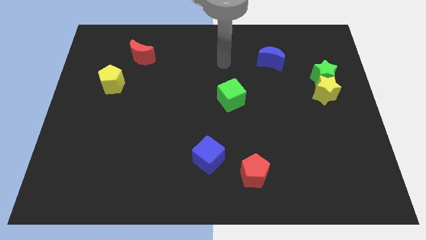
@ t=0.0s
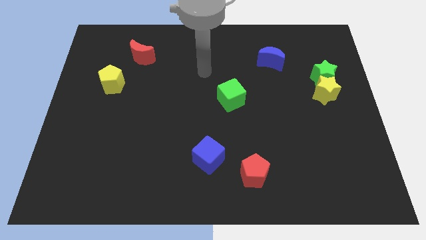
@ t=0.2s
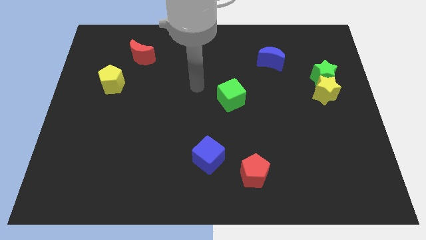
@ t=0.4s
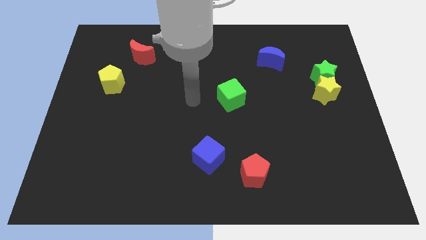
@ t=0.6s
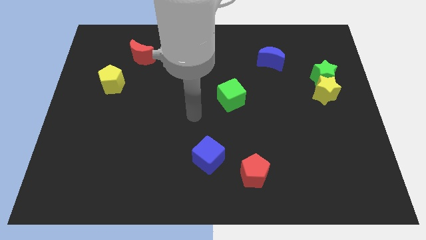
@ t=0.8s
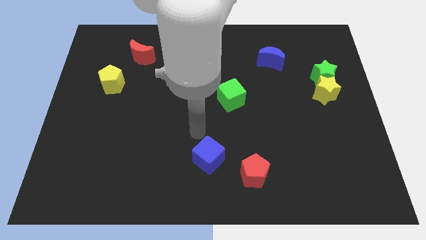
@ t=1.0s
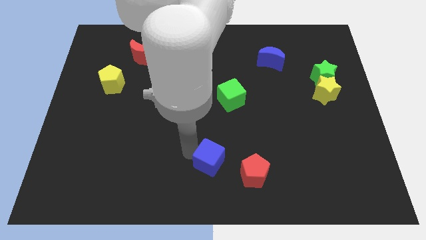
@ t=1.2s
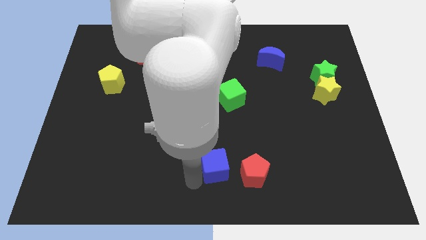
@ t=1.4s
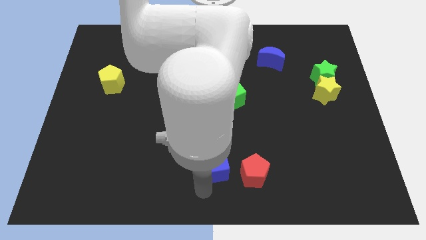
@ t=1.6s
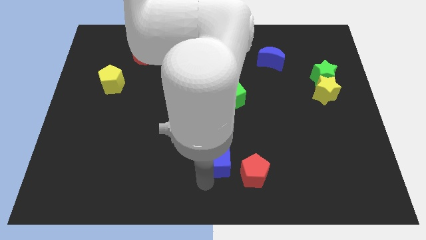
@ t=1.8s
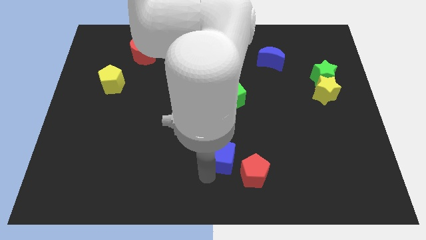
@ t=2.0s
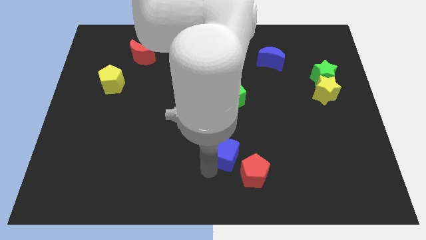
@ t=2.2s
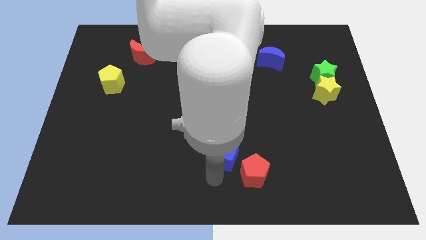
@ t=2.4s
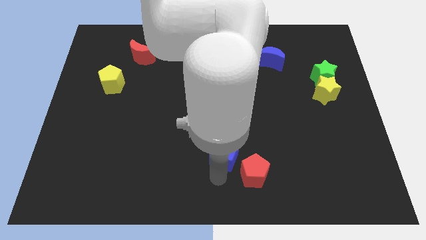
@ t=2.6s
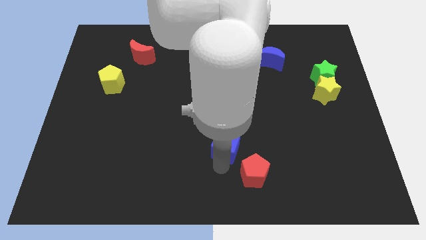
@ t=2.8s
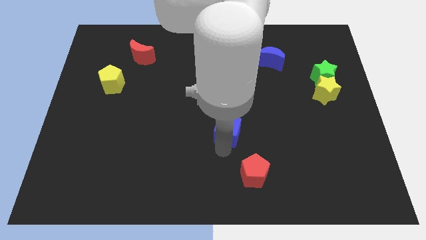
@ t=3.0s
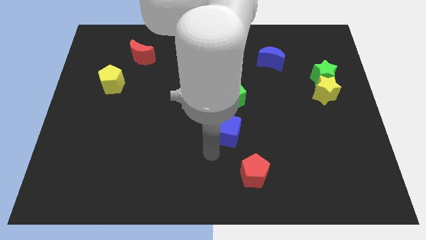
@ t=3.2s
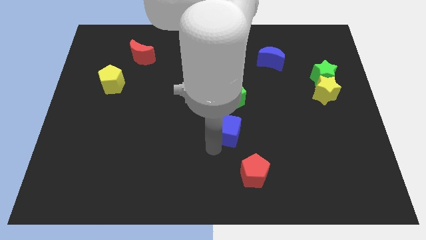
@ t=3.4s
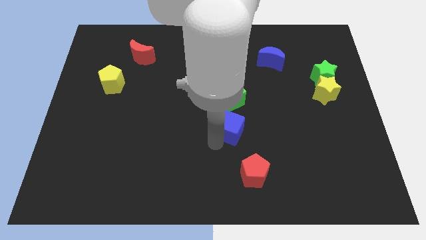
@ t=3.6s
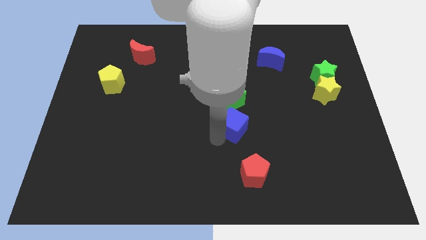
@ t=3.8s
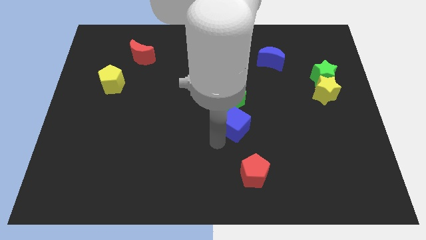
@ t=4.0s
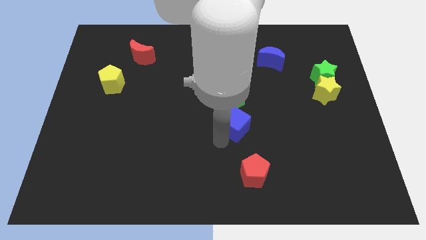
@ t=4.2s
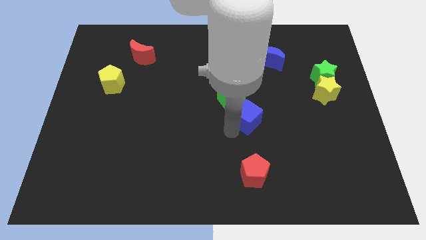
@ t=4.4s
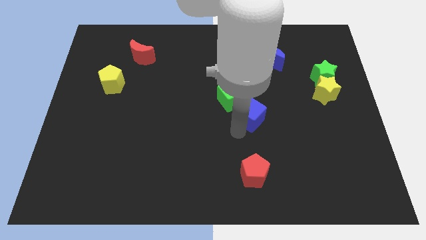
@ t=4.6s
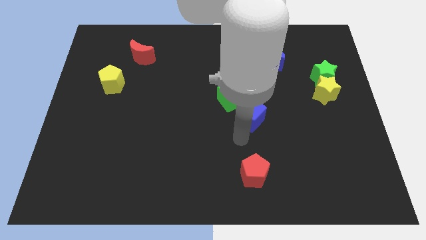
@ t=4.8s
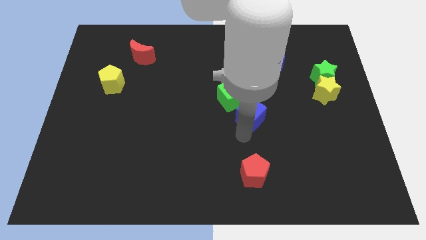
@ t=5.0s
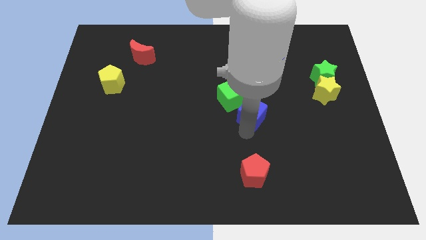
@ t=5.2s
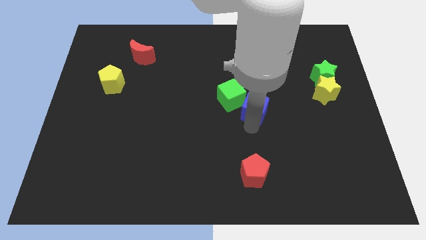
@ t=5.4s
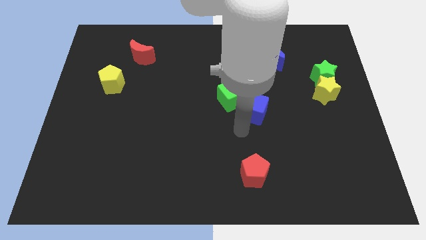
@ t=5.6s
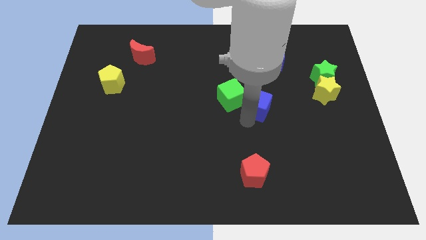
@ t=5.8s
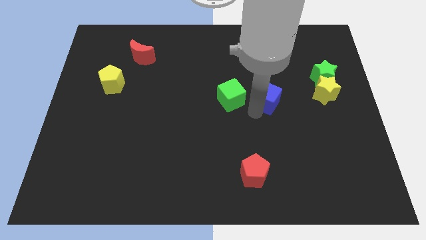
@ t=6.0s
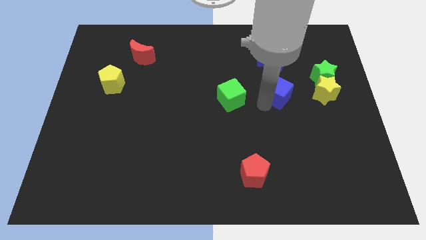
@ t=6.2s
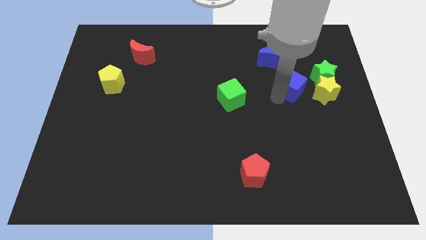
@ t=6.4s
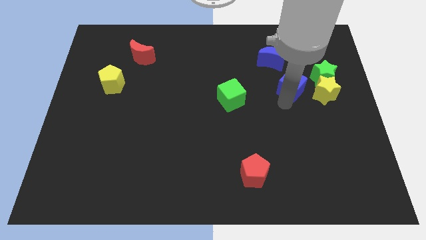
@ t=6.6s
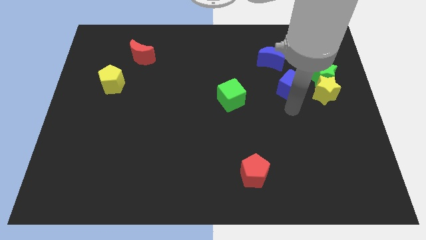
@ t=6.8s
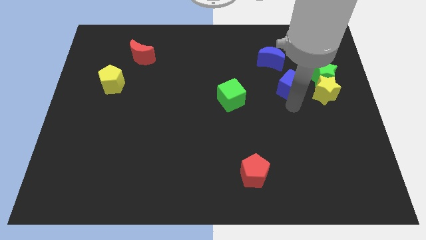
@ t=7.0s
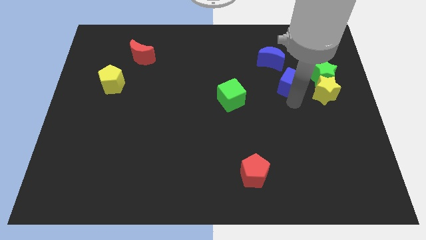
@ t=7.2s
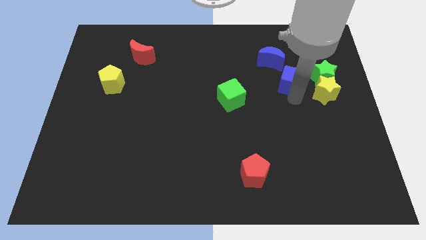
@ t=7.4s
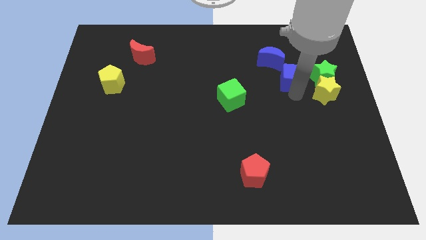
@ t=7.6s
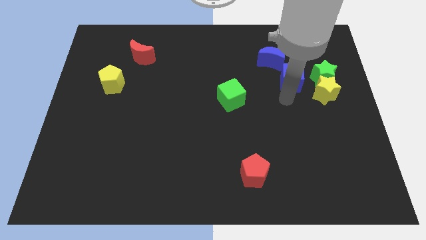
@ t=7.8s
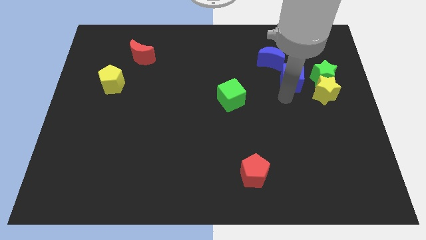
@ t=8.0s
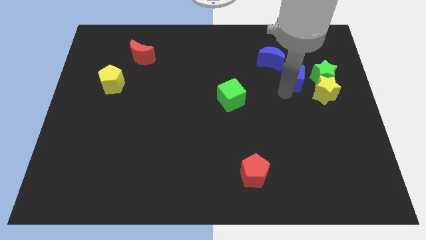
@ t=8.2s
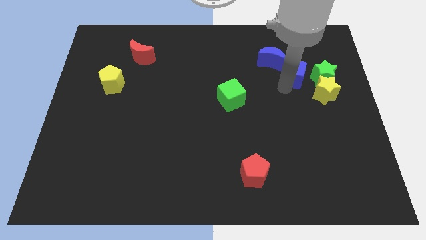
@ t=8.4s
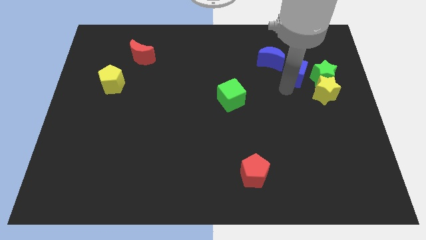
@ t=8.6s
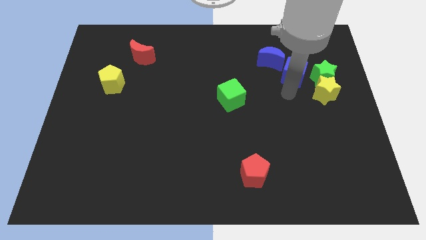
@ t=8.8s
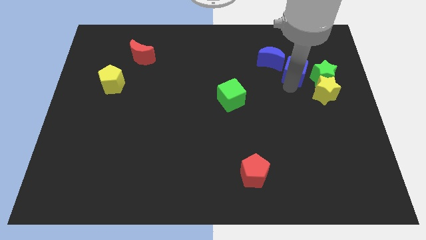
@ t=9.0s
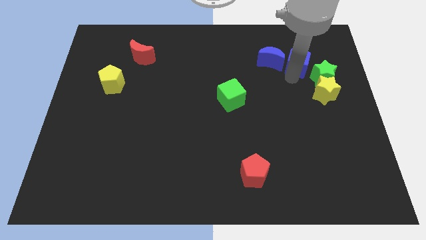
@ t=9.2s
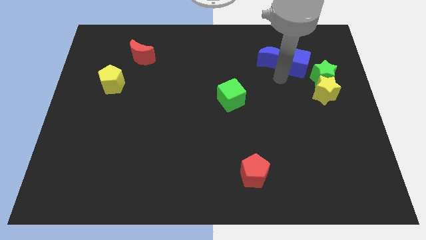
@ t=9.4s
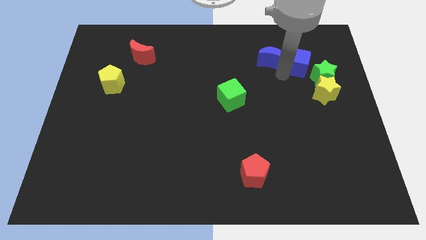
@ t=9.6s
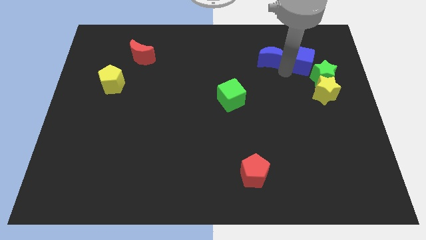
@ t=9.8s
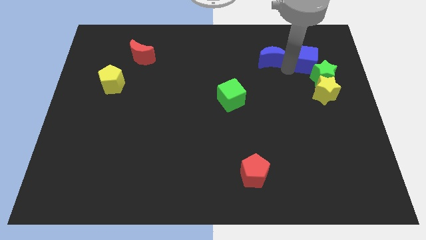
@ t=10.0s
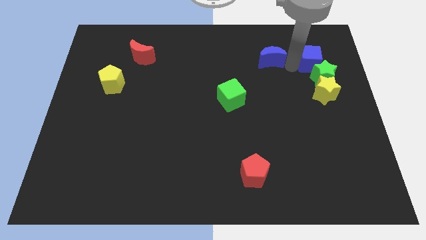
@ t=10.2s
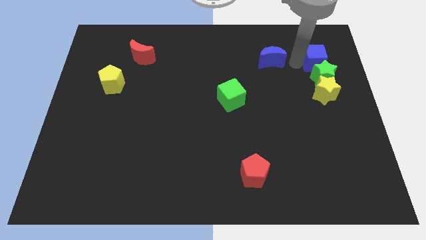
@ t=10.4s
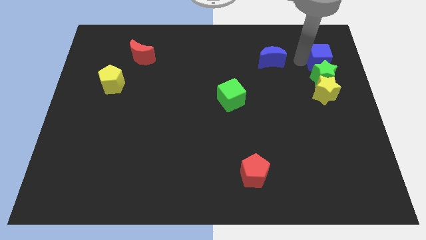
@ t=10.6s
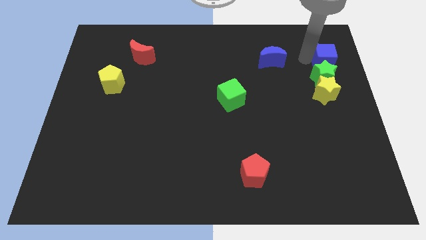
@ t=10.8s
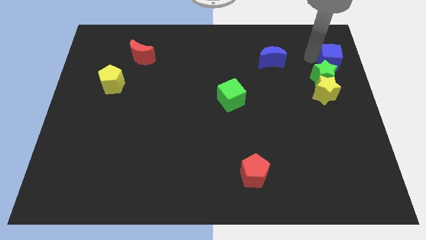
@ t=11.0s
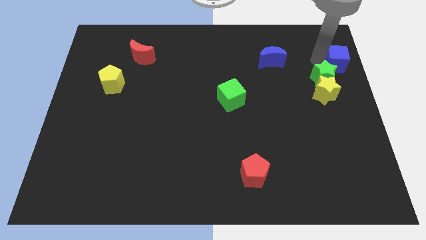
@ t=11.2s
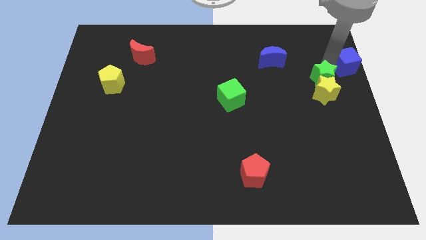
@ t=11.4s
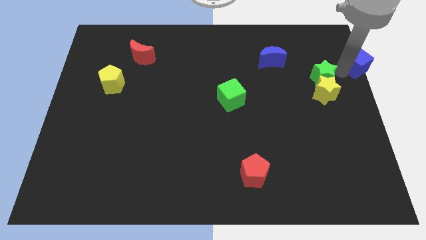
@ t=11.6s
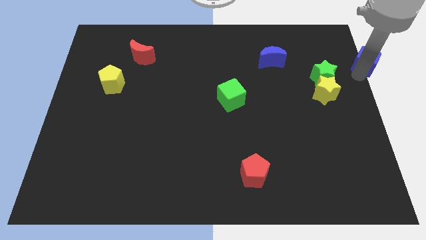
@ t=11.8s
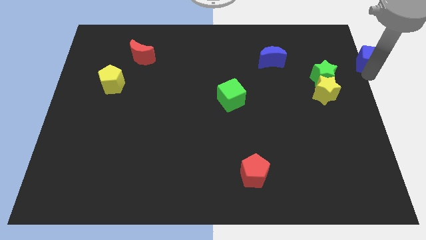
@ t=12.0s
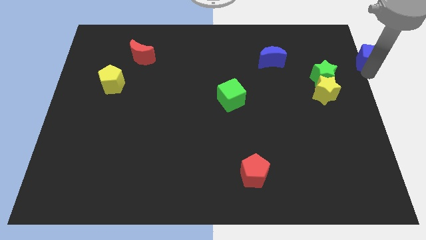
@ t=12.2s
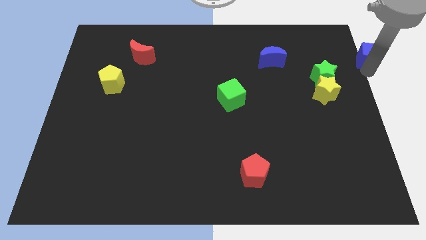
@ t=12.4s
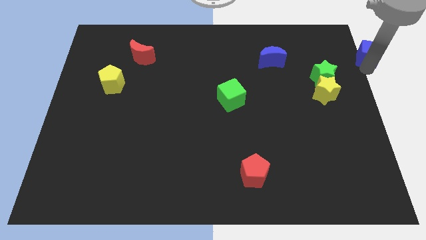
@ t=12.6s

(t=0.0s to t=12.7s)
move the blue cube to the upper right corner
